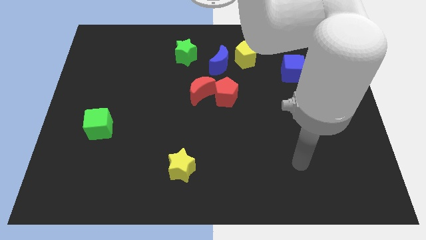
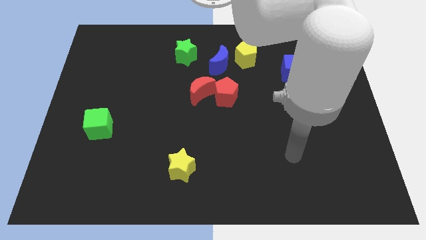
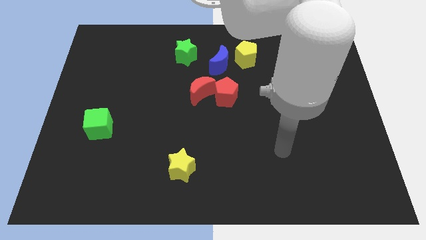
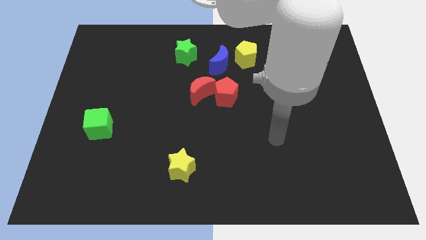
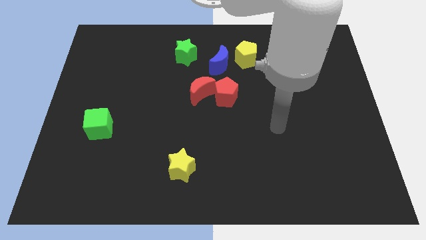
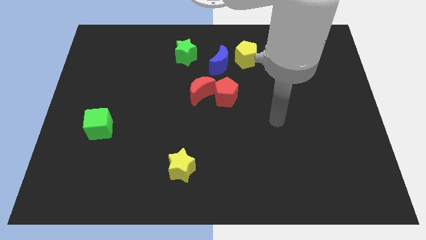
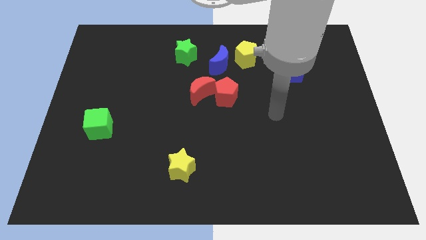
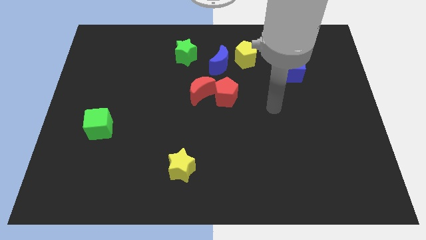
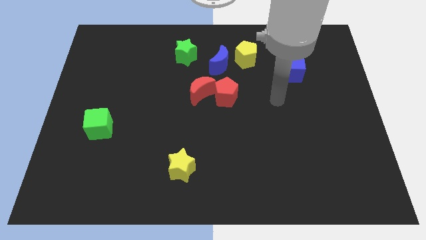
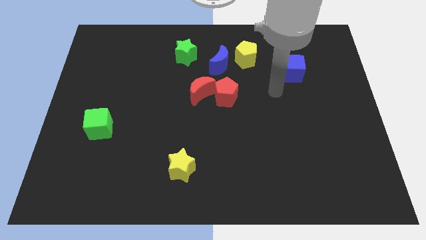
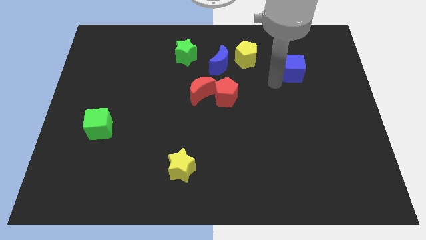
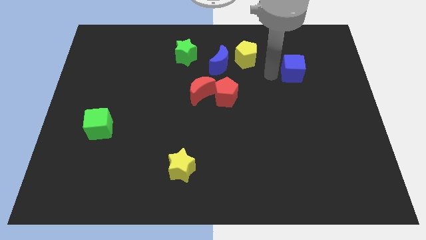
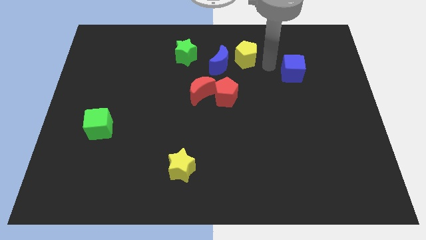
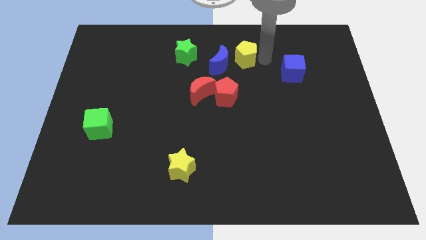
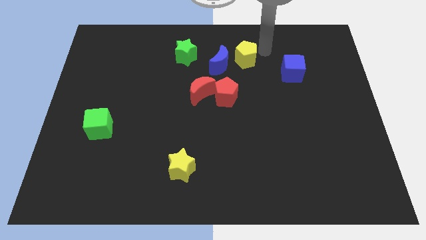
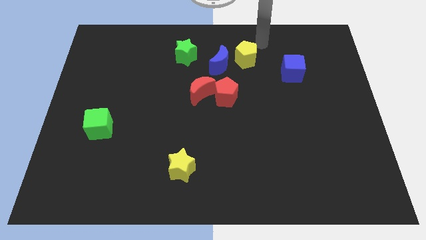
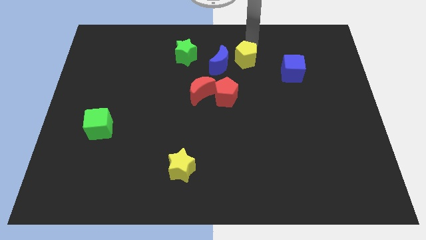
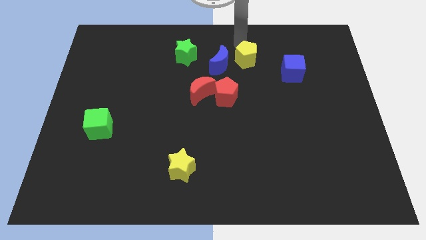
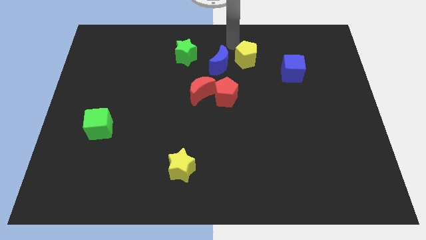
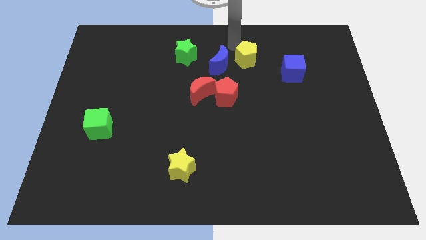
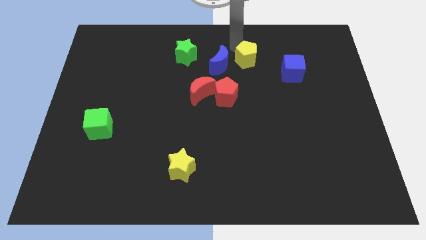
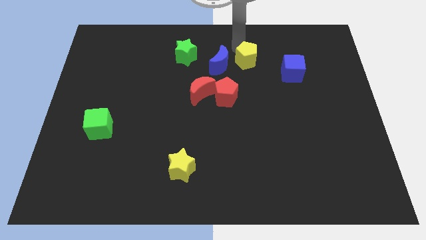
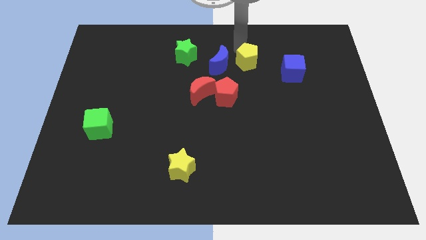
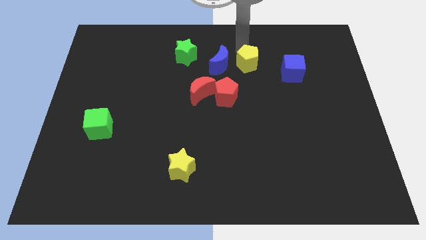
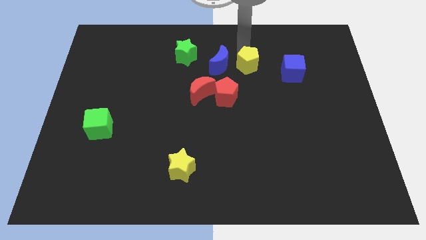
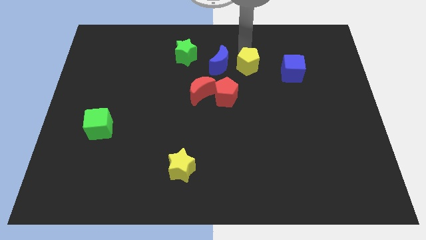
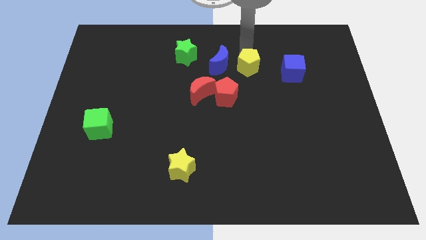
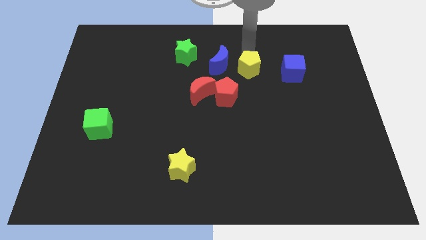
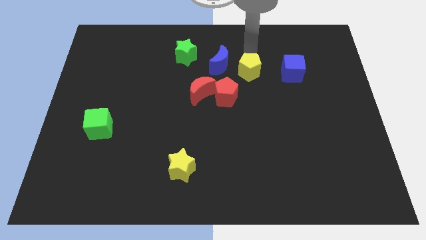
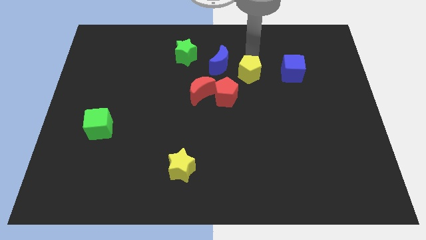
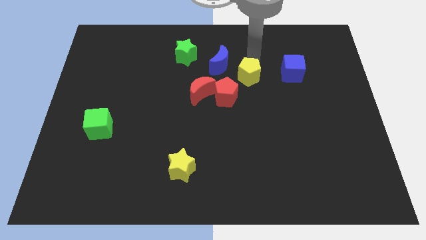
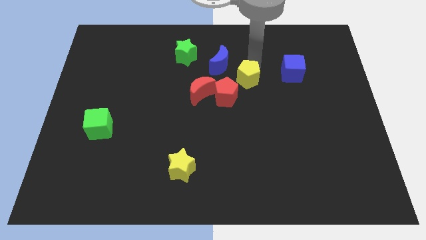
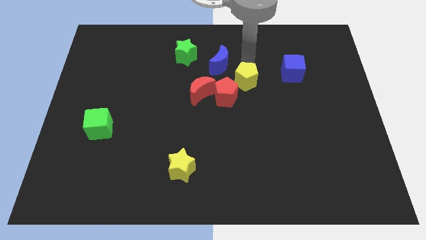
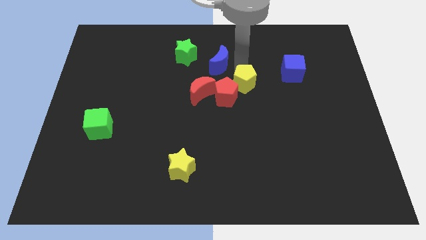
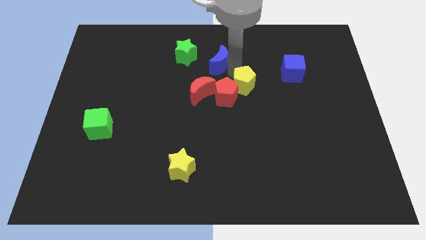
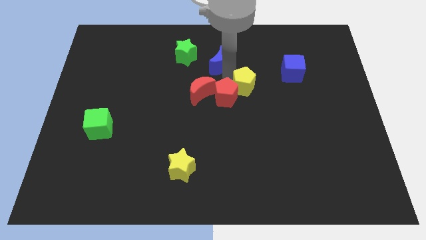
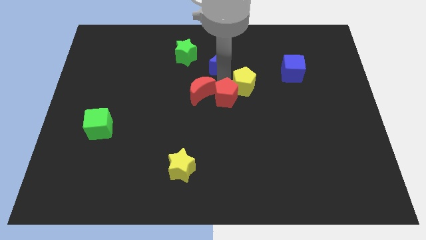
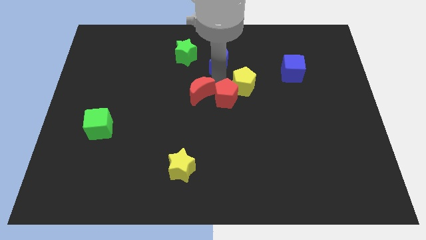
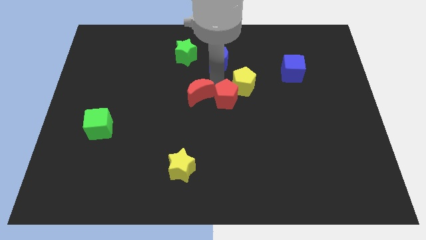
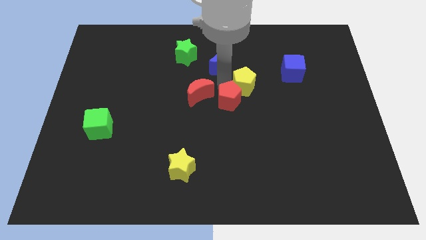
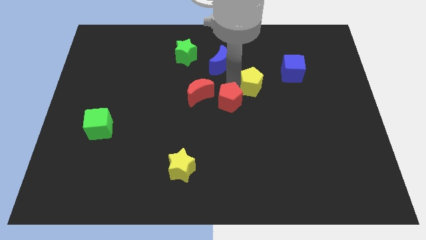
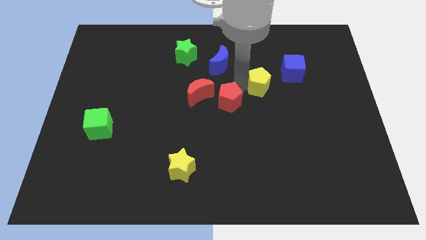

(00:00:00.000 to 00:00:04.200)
slightly push the yellow pentagon diagonally downwards and right

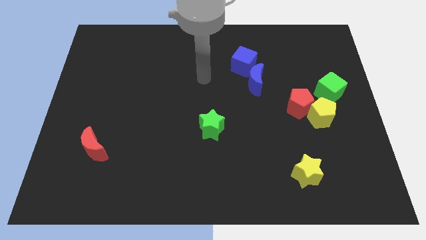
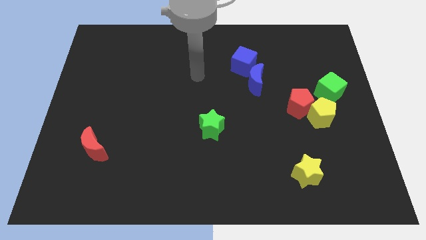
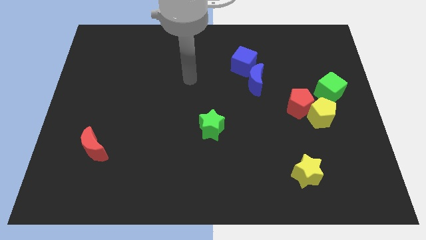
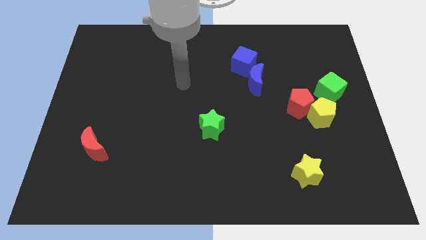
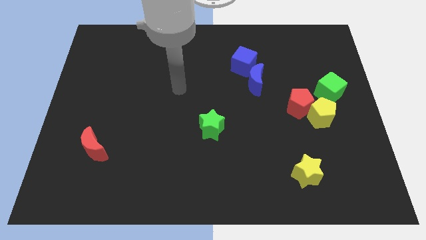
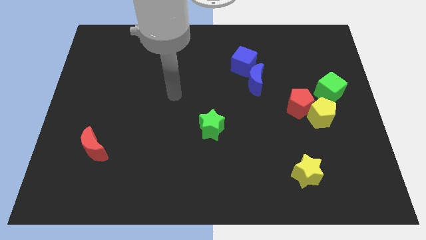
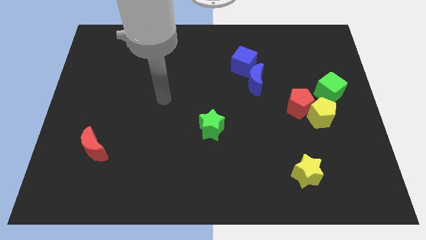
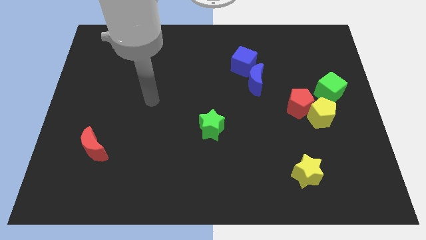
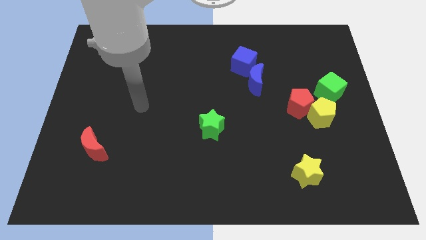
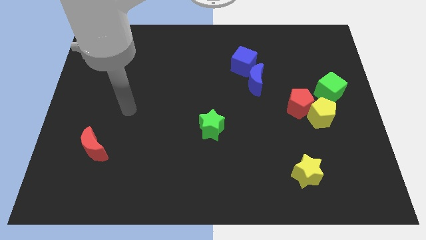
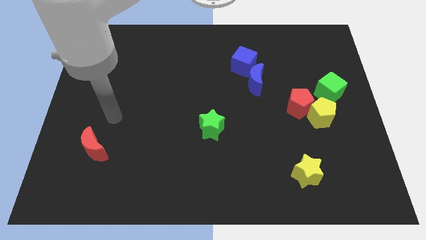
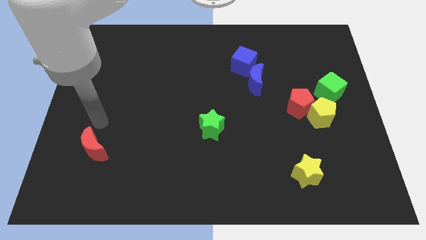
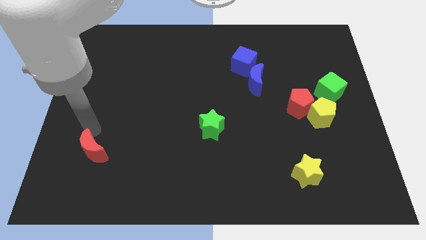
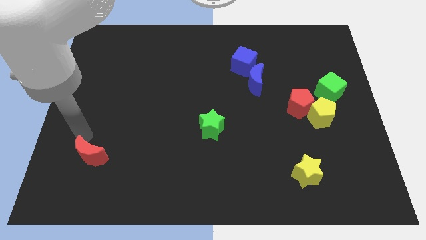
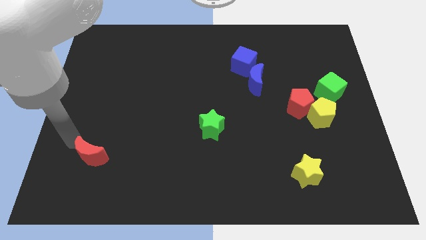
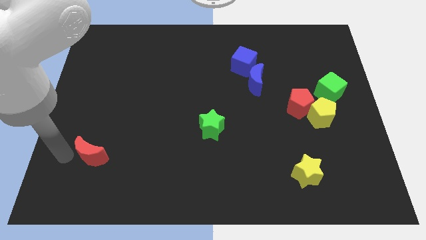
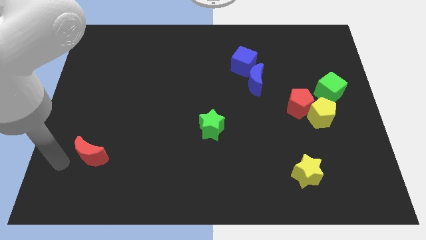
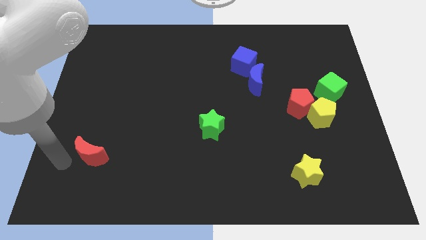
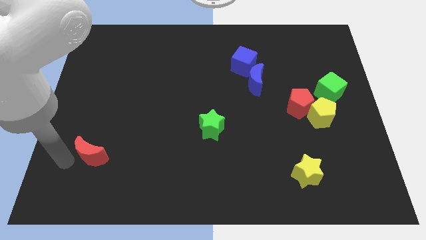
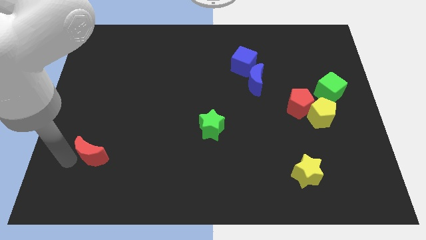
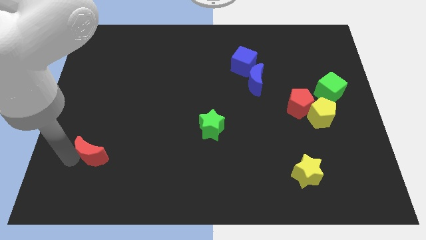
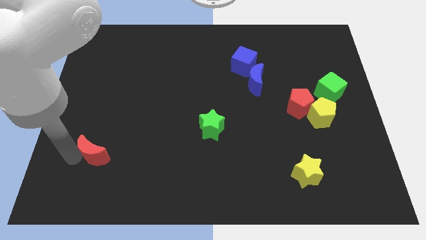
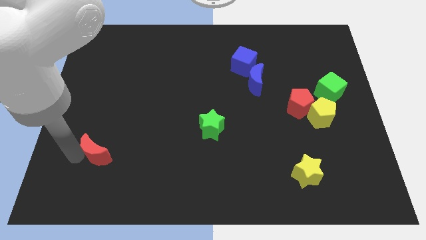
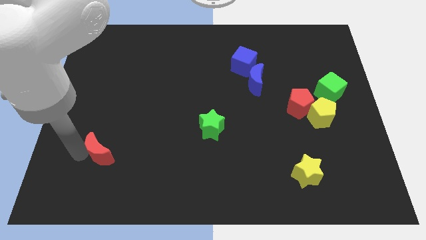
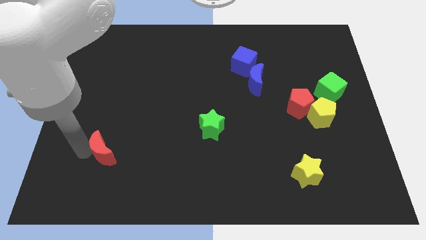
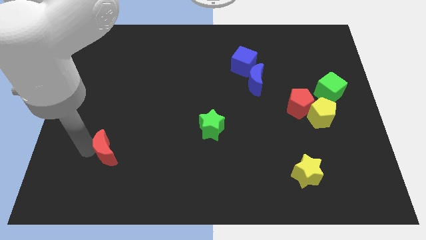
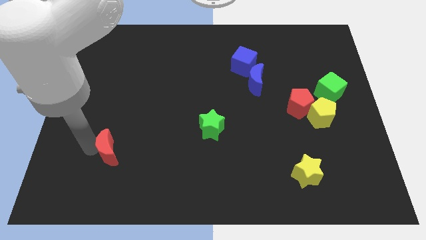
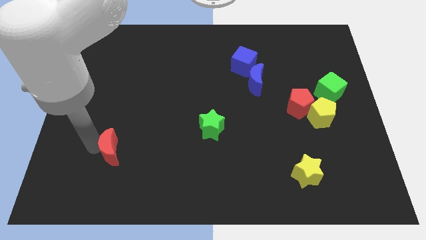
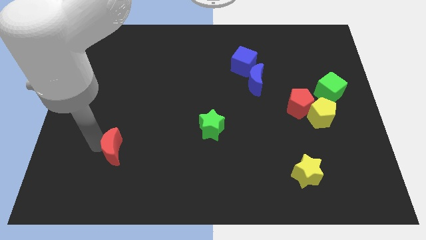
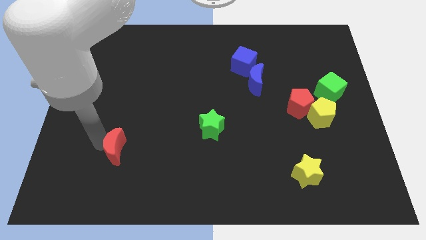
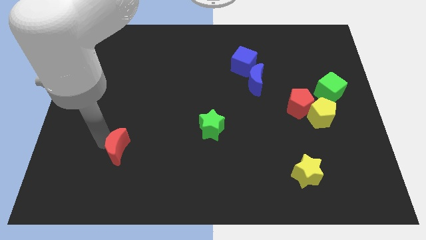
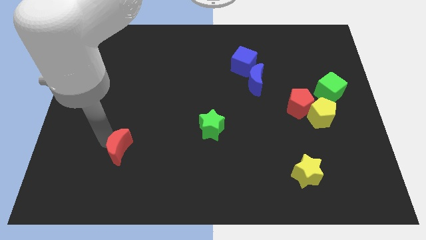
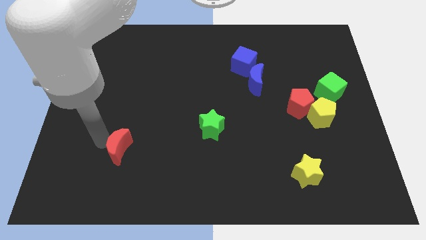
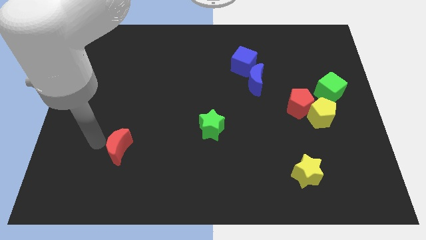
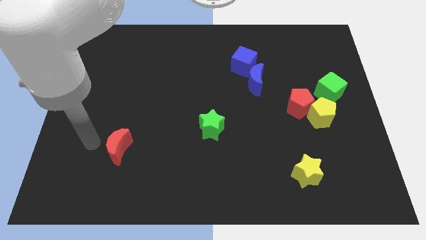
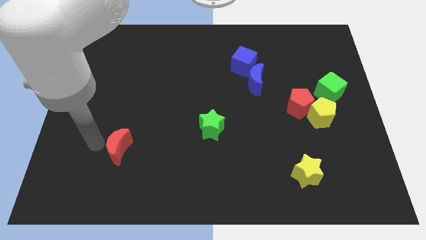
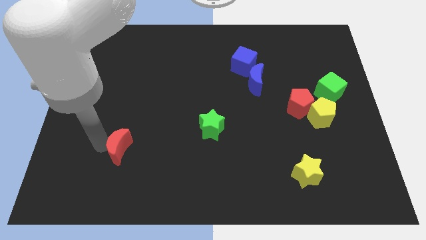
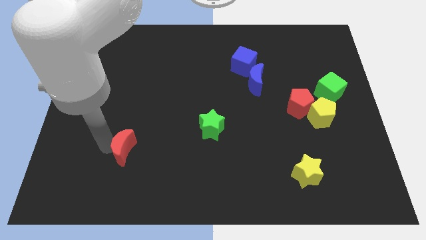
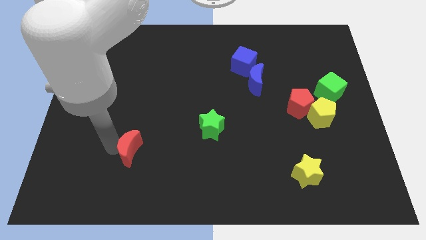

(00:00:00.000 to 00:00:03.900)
move the red moon a bit to the right
